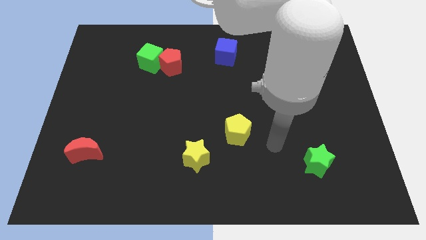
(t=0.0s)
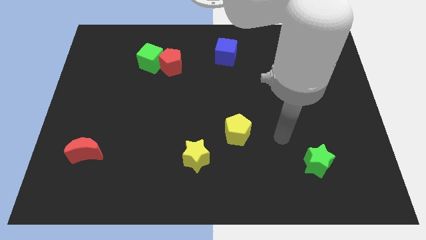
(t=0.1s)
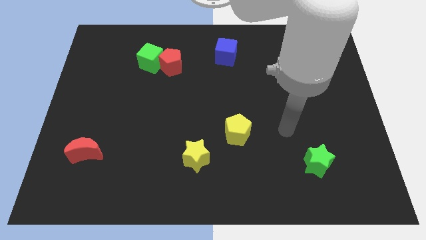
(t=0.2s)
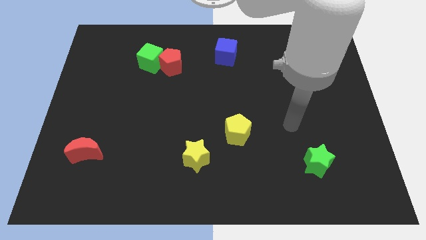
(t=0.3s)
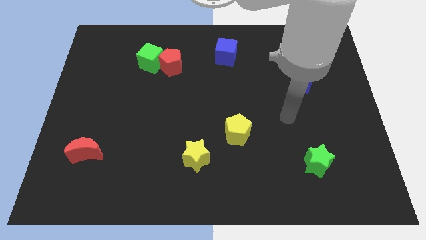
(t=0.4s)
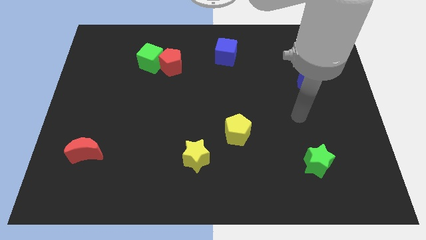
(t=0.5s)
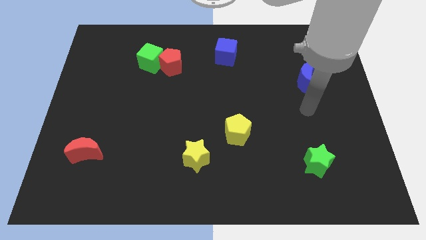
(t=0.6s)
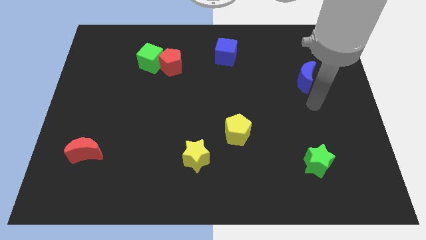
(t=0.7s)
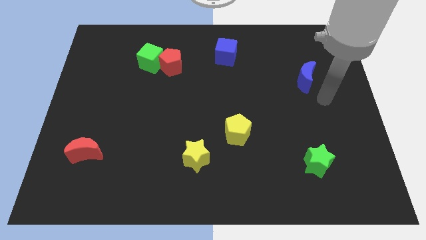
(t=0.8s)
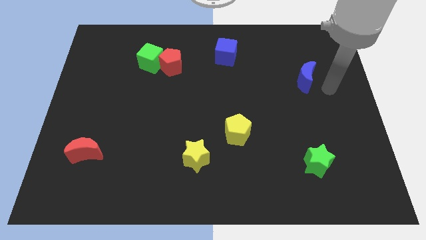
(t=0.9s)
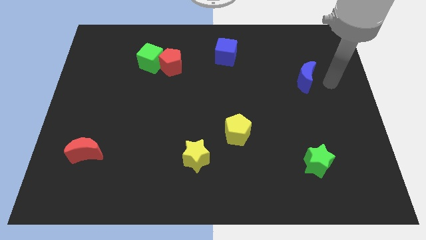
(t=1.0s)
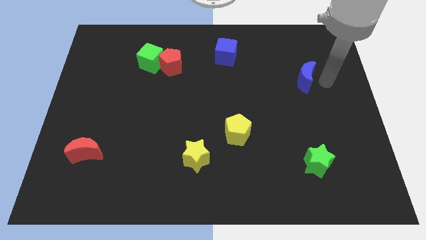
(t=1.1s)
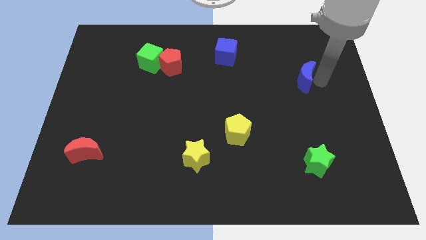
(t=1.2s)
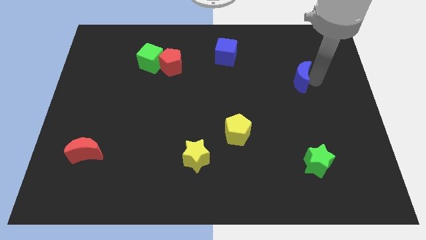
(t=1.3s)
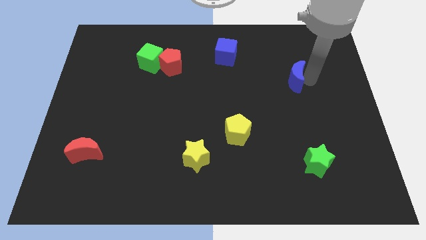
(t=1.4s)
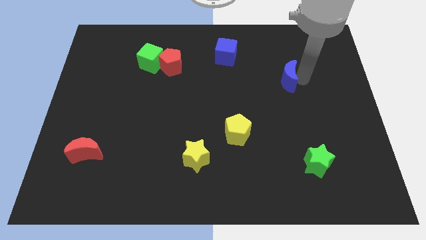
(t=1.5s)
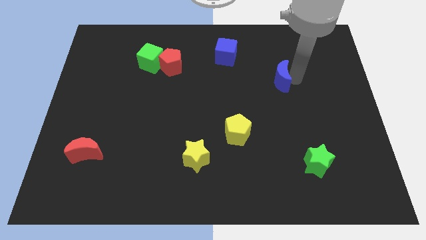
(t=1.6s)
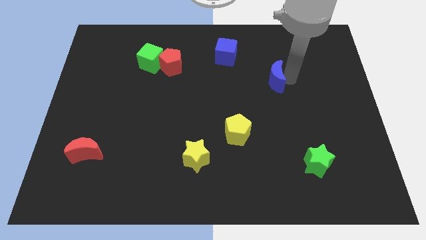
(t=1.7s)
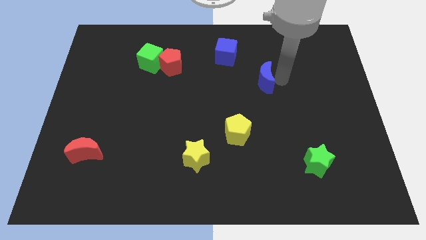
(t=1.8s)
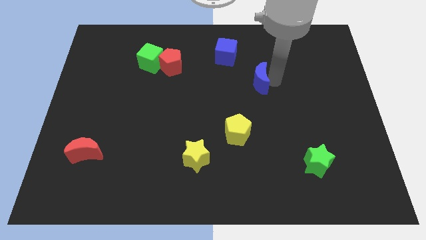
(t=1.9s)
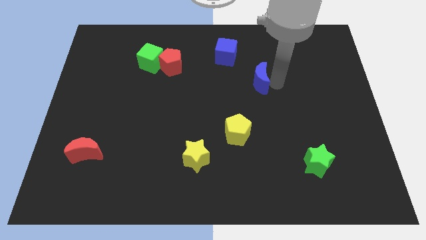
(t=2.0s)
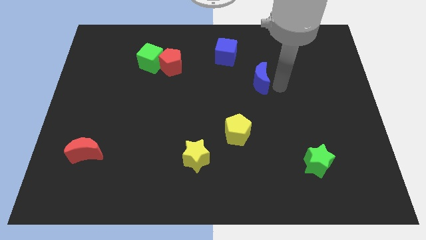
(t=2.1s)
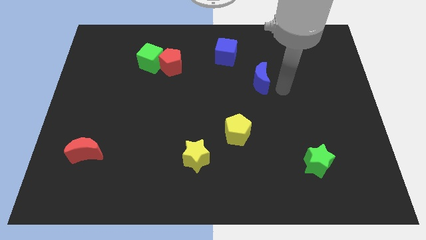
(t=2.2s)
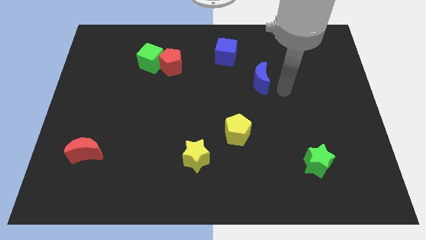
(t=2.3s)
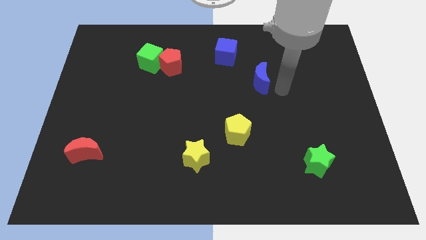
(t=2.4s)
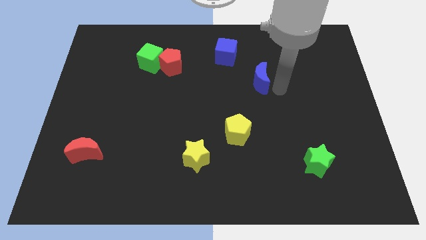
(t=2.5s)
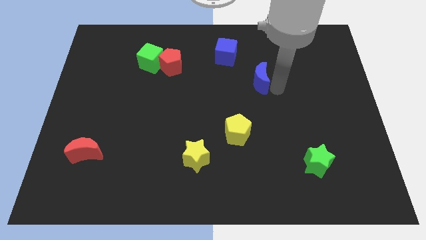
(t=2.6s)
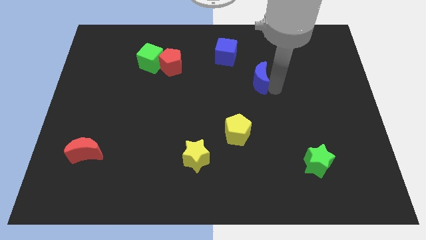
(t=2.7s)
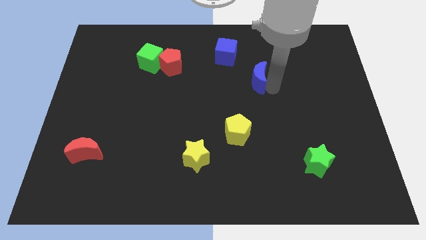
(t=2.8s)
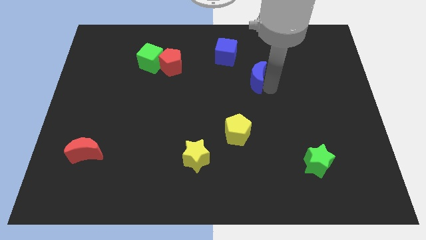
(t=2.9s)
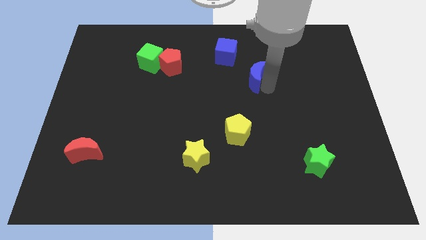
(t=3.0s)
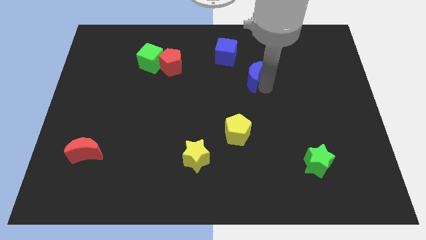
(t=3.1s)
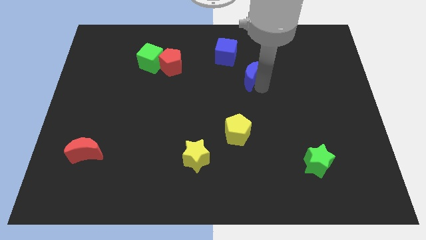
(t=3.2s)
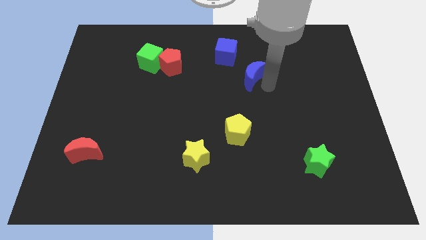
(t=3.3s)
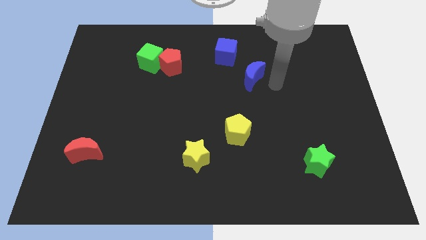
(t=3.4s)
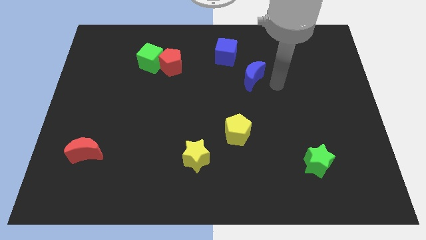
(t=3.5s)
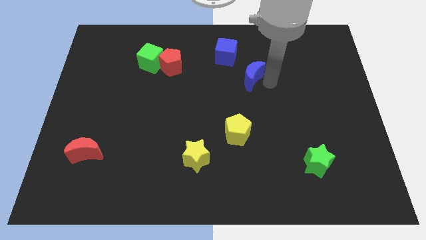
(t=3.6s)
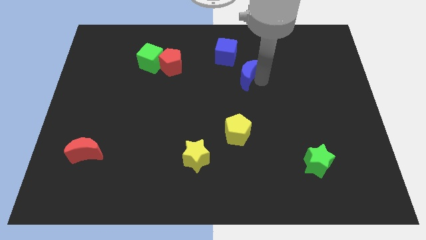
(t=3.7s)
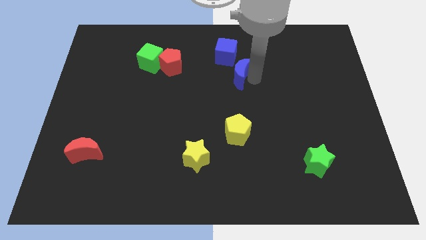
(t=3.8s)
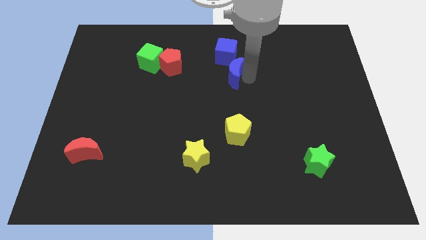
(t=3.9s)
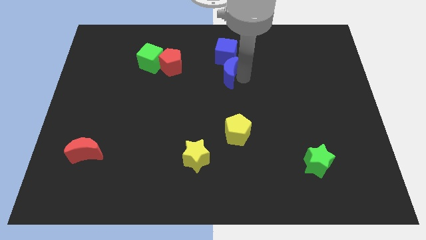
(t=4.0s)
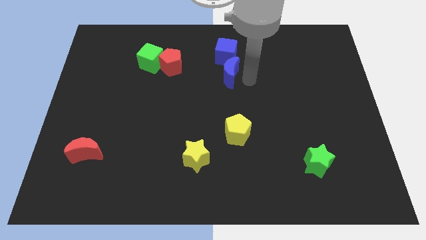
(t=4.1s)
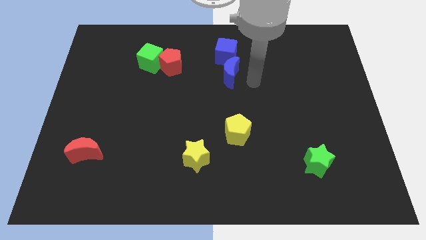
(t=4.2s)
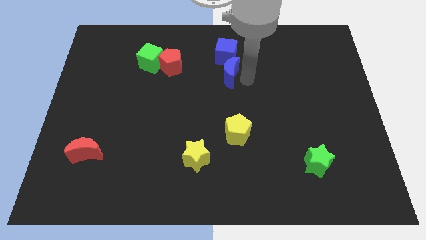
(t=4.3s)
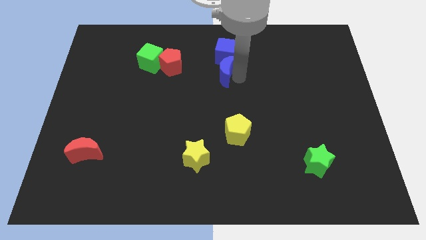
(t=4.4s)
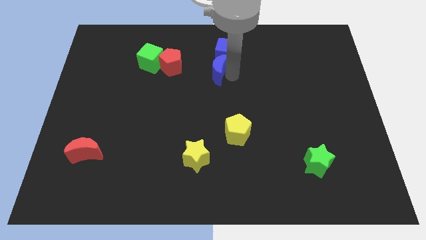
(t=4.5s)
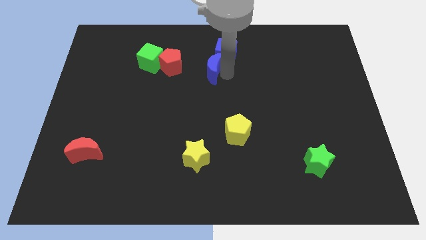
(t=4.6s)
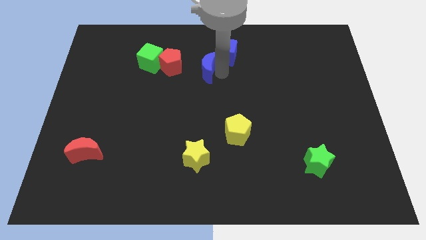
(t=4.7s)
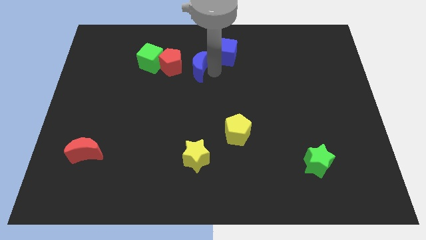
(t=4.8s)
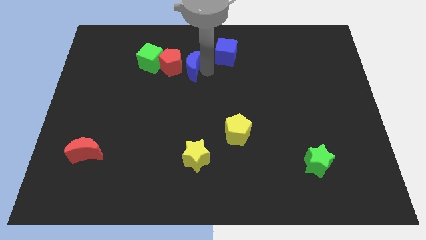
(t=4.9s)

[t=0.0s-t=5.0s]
push the blue moon towards the red pentagon

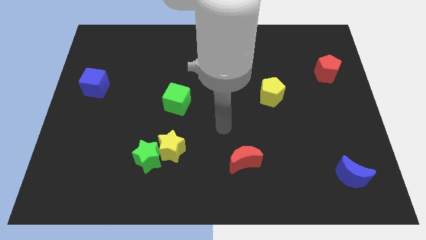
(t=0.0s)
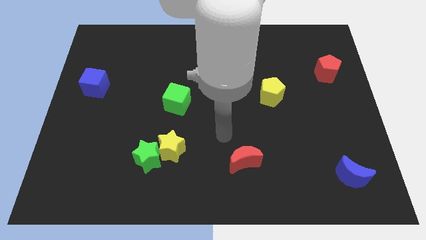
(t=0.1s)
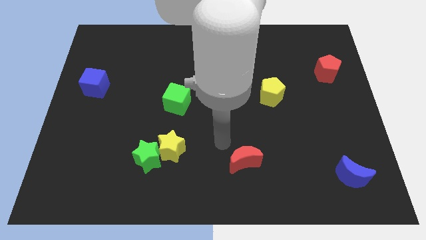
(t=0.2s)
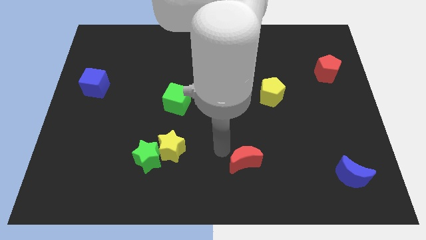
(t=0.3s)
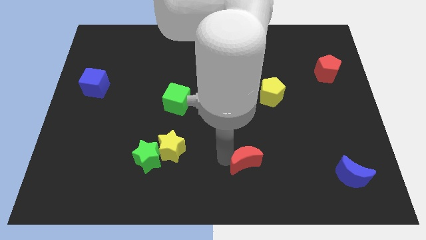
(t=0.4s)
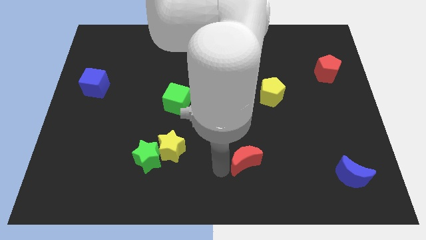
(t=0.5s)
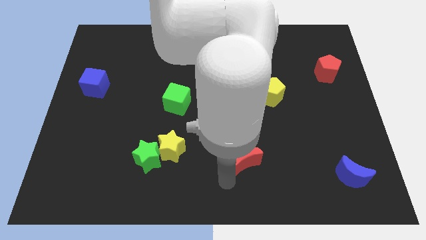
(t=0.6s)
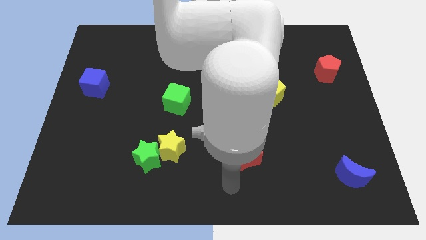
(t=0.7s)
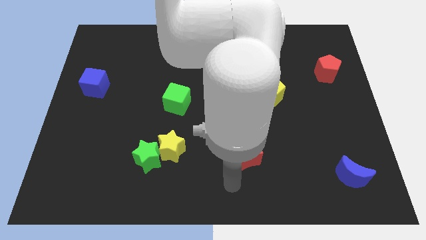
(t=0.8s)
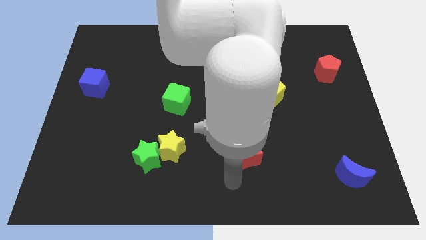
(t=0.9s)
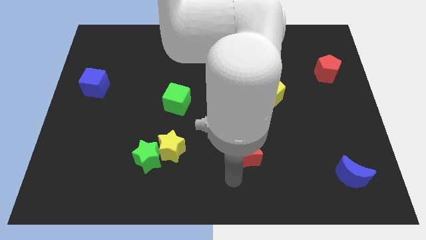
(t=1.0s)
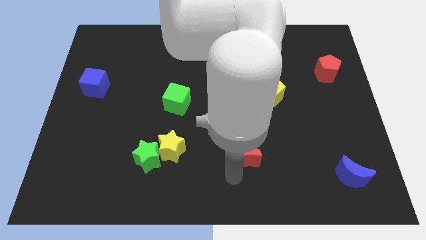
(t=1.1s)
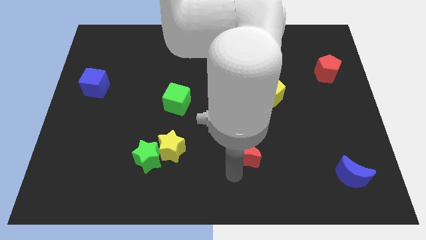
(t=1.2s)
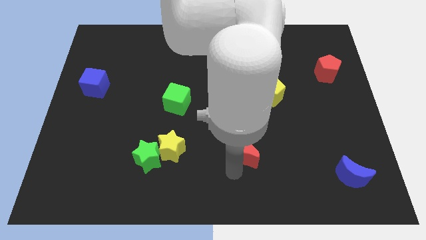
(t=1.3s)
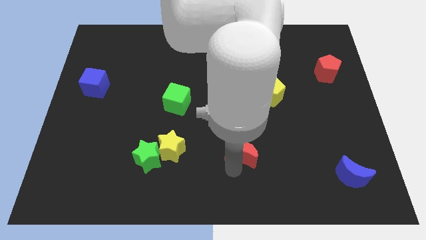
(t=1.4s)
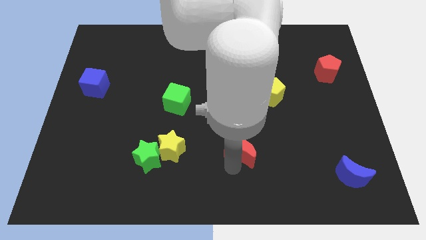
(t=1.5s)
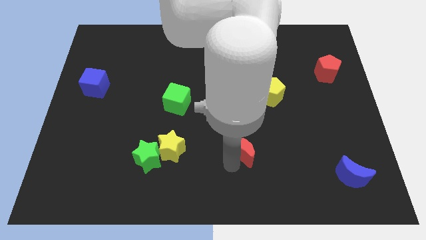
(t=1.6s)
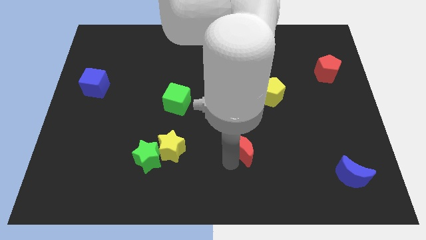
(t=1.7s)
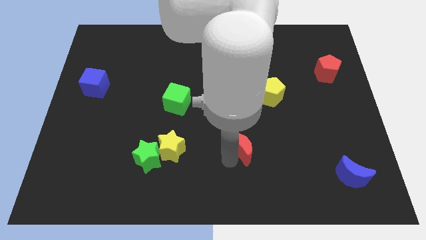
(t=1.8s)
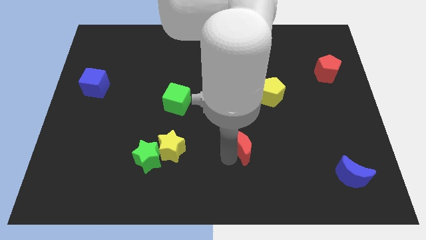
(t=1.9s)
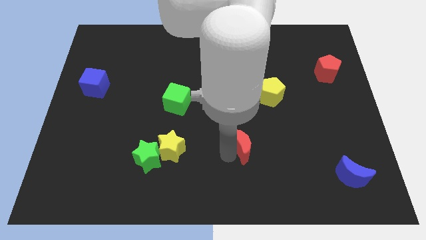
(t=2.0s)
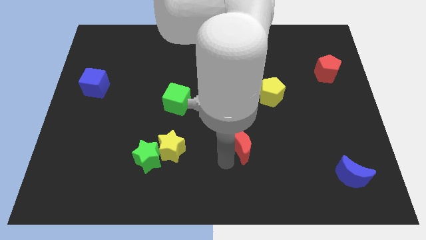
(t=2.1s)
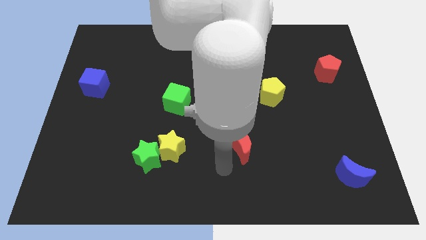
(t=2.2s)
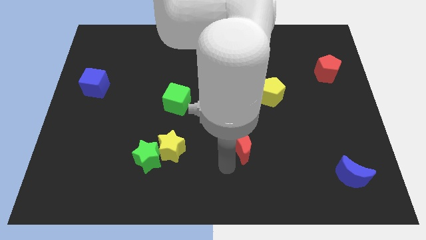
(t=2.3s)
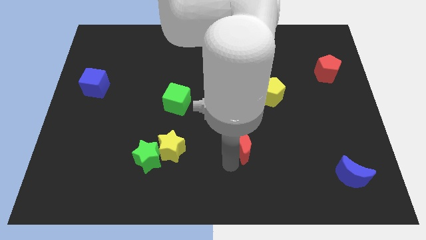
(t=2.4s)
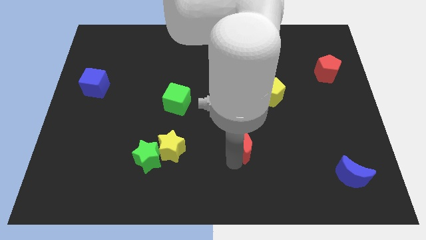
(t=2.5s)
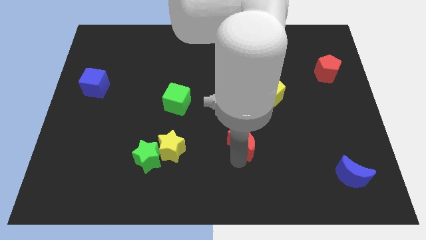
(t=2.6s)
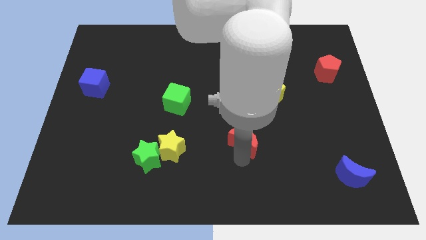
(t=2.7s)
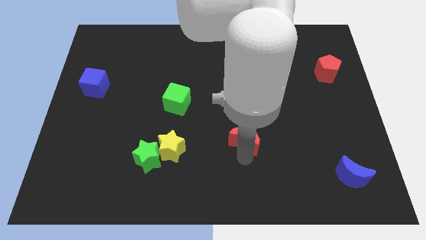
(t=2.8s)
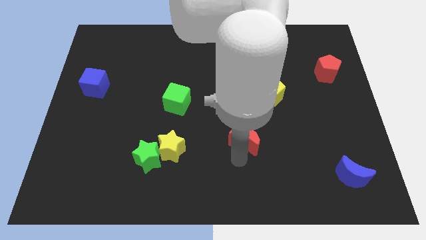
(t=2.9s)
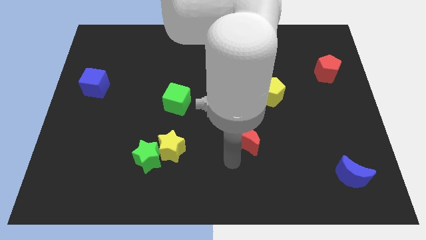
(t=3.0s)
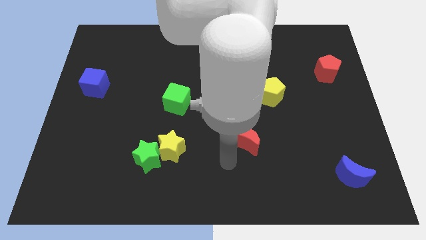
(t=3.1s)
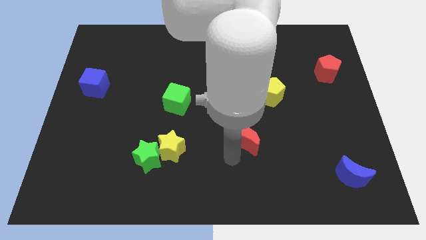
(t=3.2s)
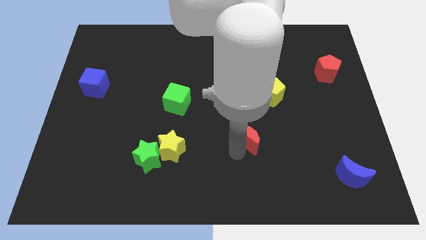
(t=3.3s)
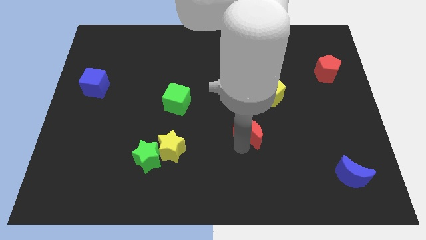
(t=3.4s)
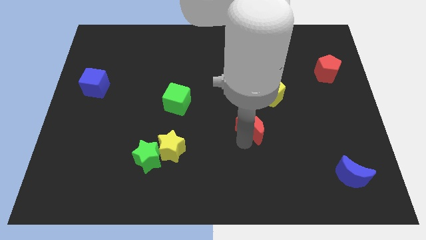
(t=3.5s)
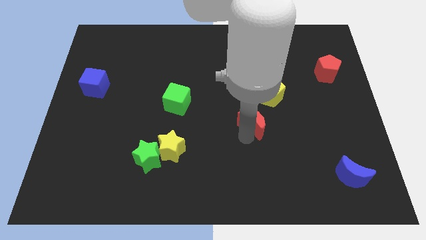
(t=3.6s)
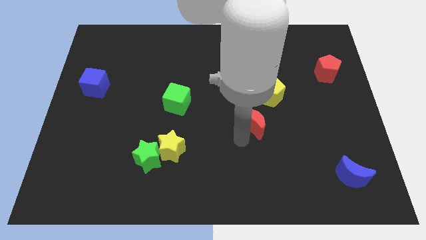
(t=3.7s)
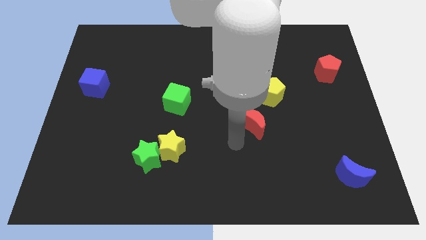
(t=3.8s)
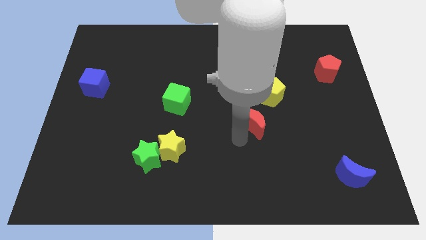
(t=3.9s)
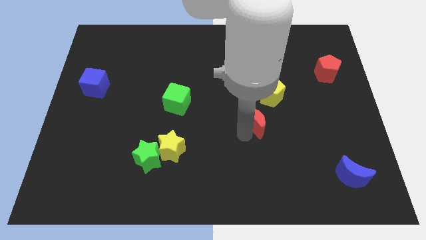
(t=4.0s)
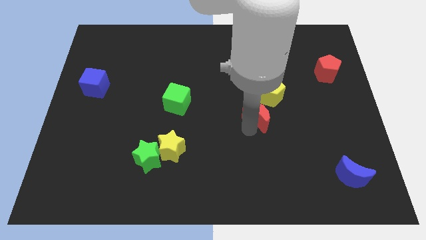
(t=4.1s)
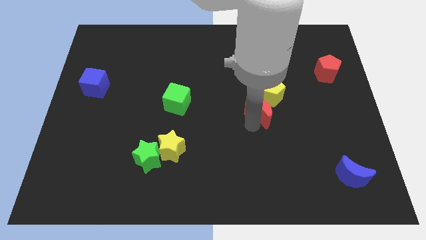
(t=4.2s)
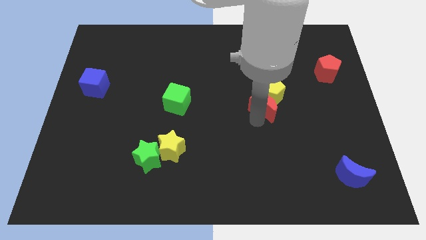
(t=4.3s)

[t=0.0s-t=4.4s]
put the red moon towards the yellow pentagon
